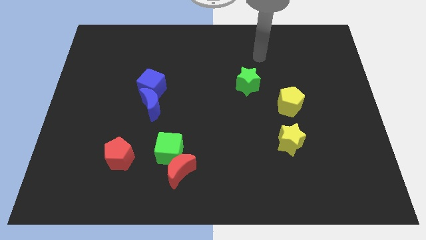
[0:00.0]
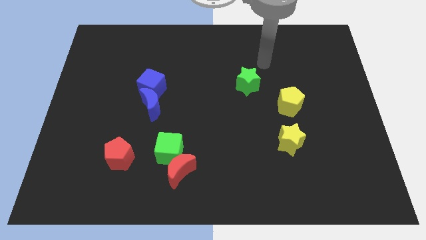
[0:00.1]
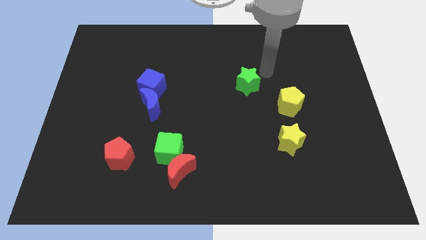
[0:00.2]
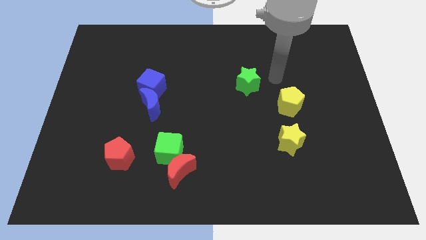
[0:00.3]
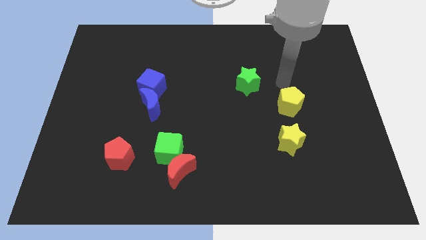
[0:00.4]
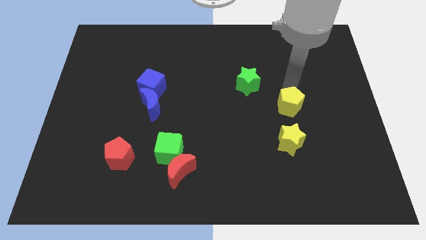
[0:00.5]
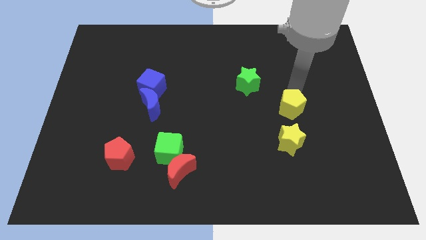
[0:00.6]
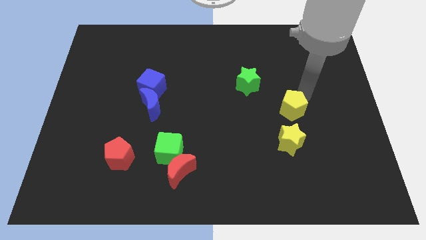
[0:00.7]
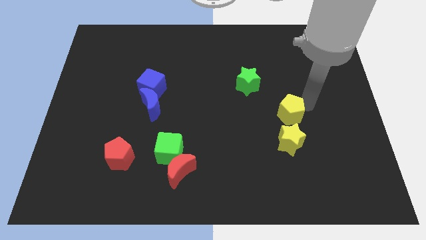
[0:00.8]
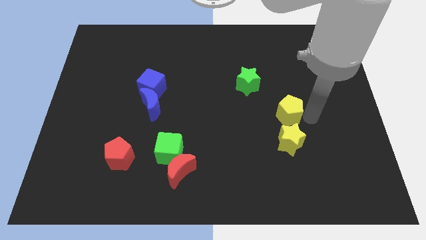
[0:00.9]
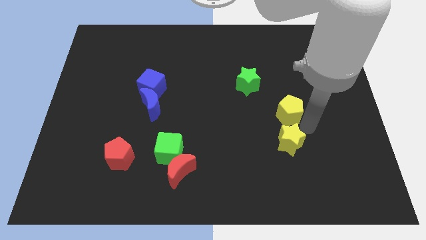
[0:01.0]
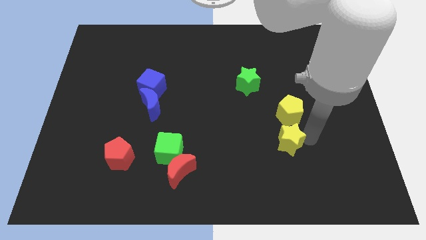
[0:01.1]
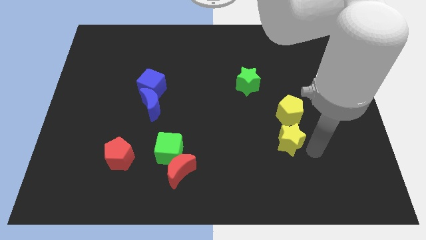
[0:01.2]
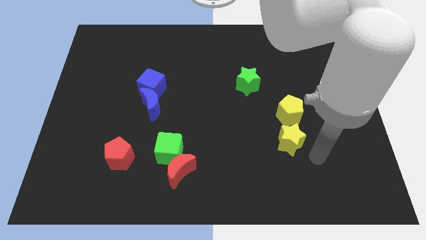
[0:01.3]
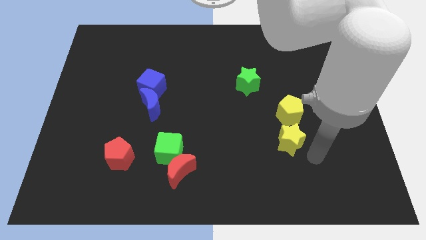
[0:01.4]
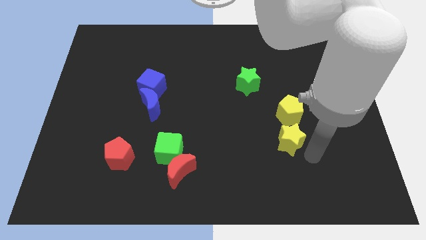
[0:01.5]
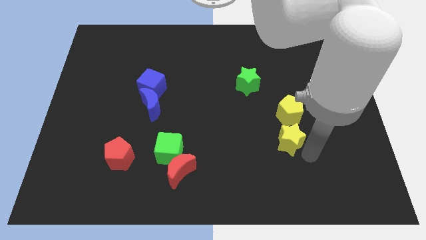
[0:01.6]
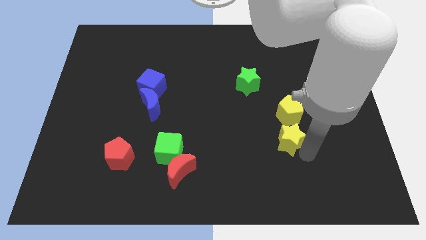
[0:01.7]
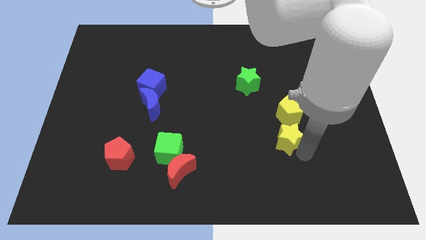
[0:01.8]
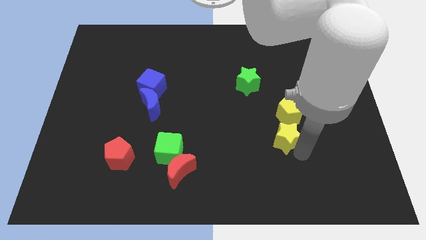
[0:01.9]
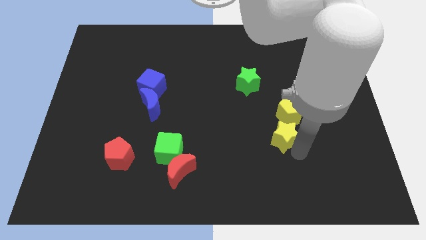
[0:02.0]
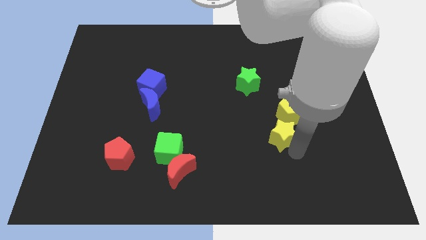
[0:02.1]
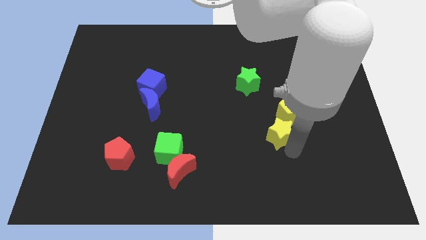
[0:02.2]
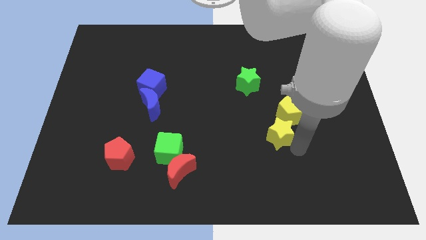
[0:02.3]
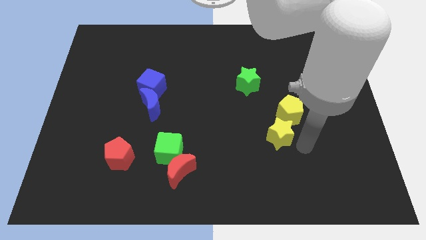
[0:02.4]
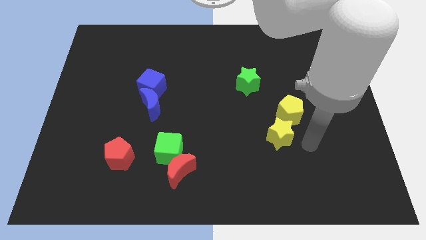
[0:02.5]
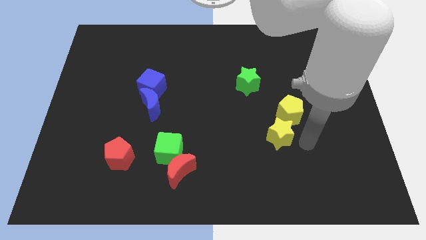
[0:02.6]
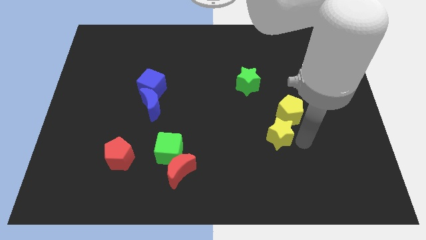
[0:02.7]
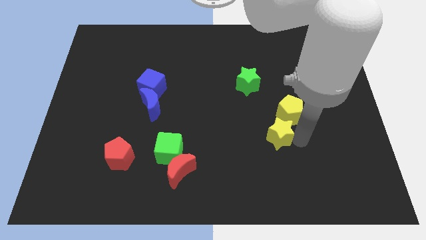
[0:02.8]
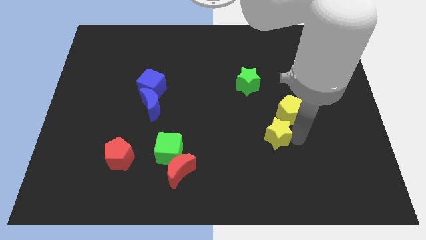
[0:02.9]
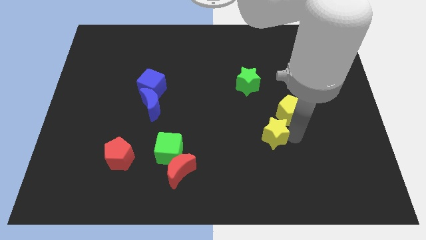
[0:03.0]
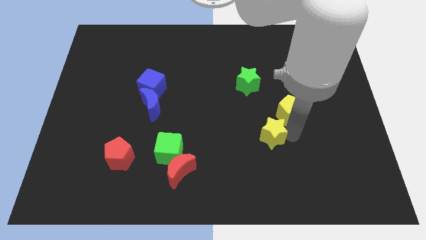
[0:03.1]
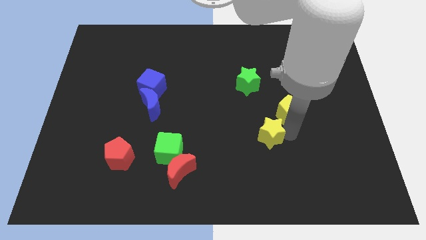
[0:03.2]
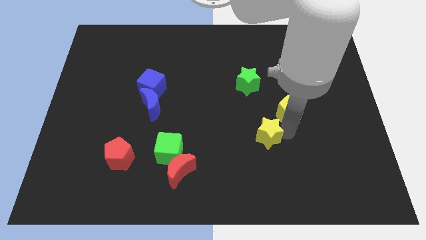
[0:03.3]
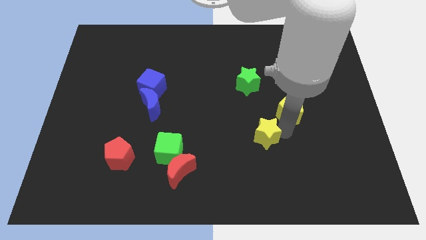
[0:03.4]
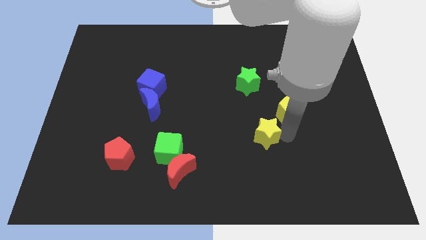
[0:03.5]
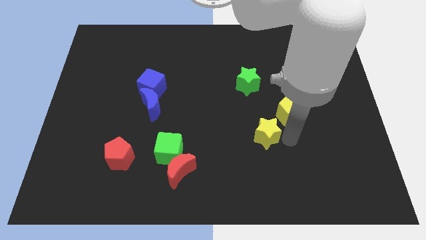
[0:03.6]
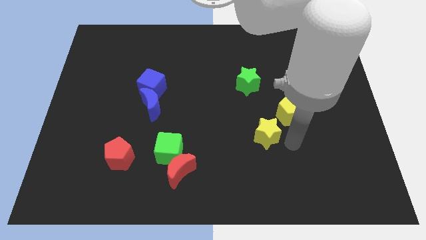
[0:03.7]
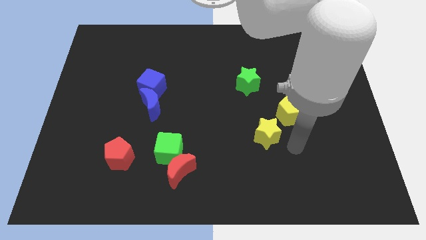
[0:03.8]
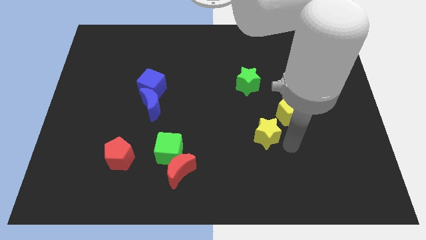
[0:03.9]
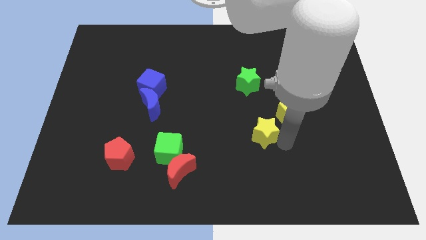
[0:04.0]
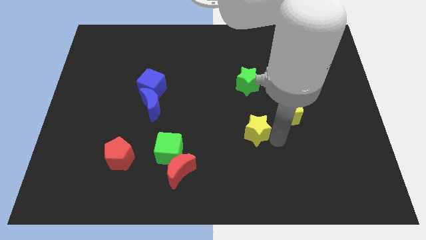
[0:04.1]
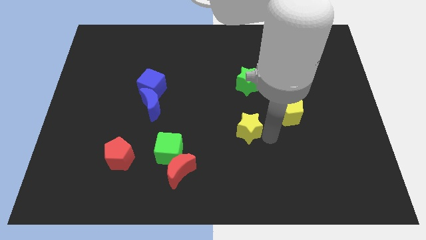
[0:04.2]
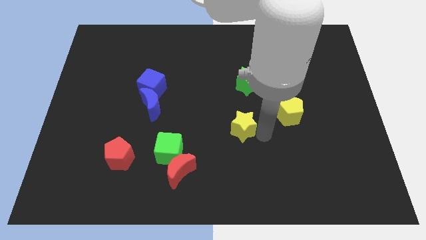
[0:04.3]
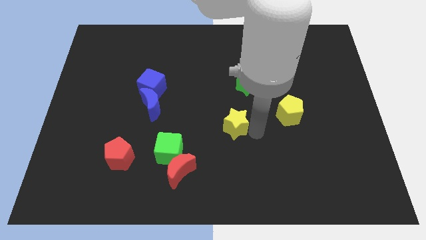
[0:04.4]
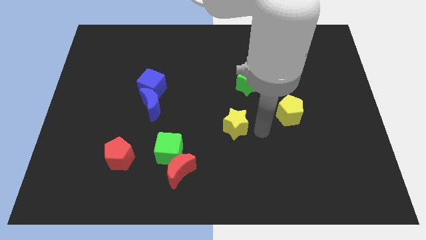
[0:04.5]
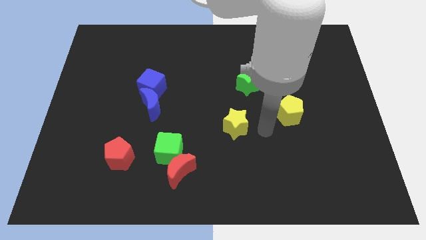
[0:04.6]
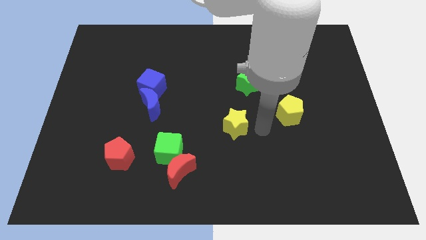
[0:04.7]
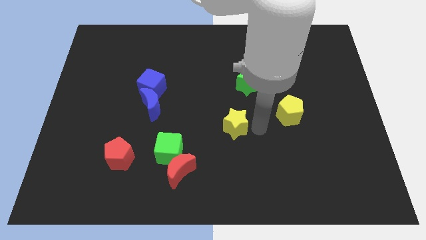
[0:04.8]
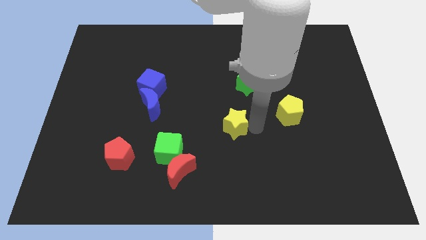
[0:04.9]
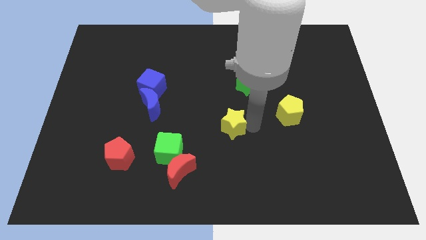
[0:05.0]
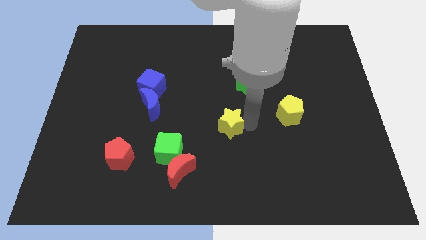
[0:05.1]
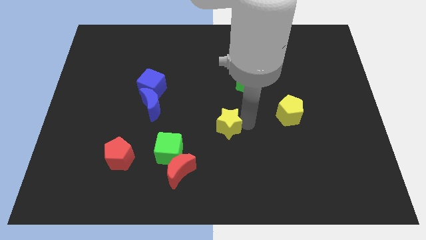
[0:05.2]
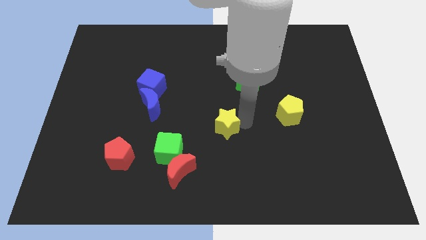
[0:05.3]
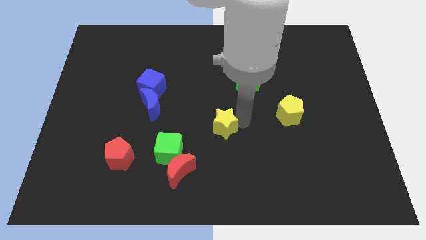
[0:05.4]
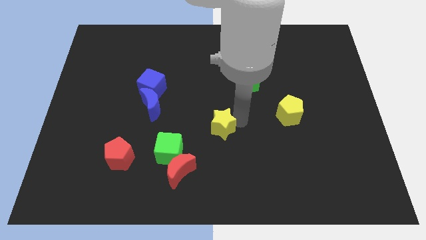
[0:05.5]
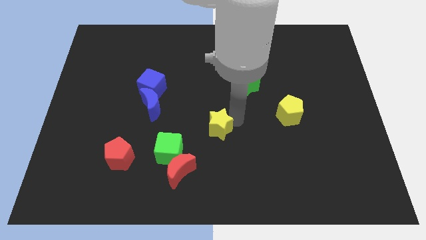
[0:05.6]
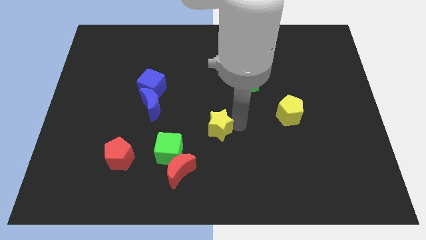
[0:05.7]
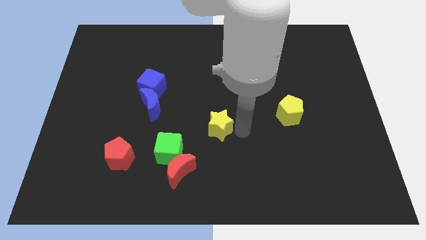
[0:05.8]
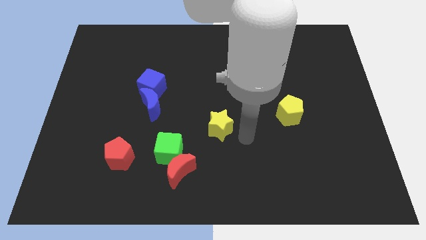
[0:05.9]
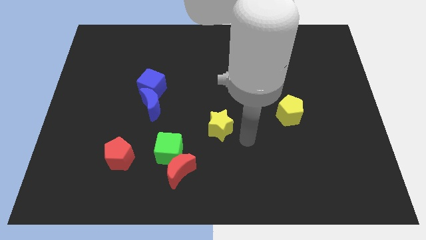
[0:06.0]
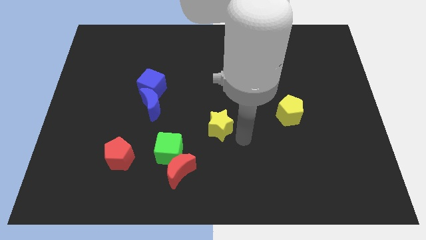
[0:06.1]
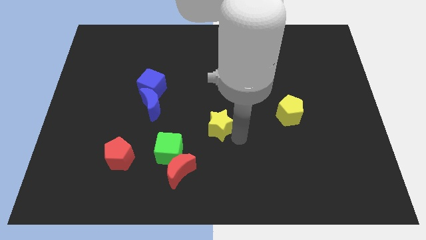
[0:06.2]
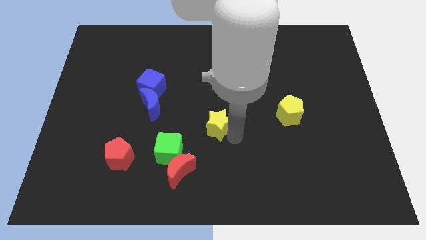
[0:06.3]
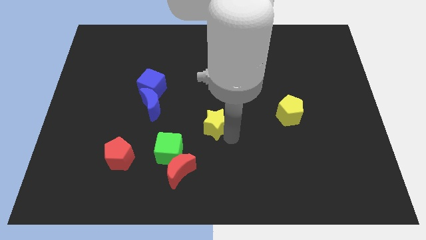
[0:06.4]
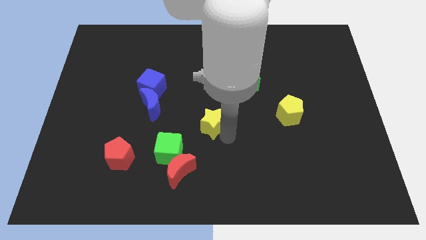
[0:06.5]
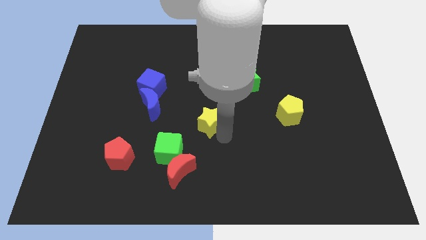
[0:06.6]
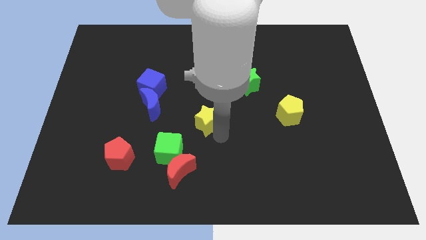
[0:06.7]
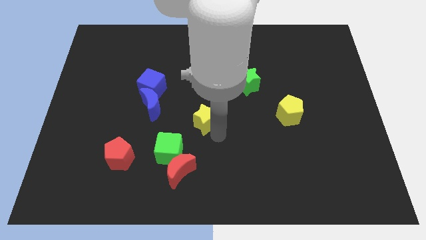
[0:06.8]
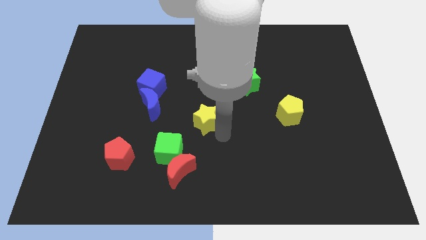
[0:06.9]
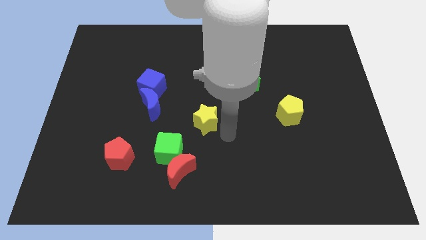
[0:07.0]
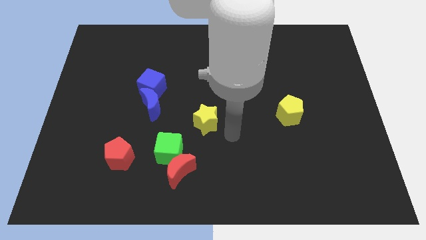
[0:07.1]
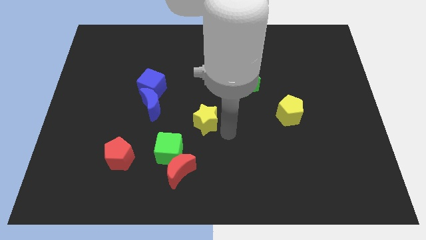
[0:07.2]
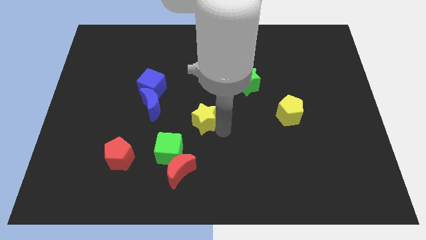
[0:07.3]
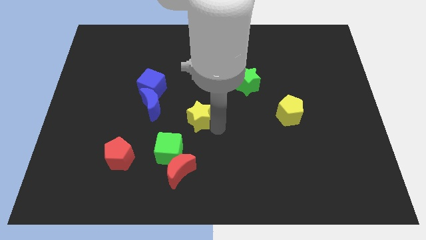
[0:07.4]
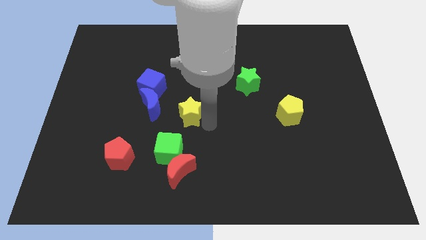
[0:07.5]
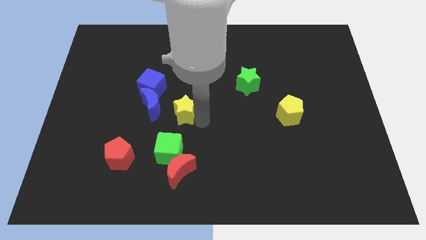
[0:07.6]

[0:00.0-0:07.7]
push the yellow star to the bottom right side of the blue cube
